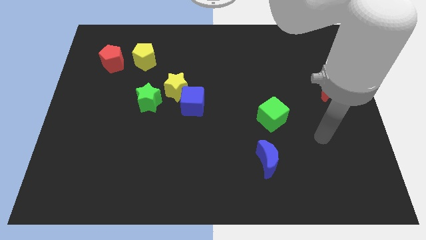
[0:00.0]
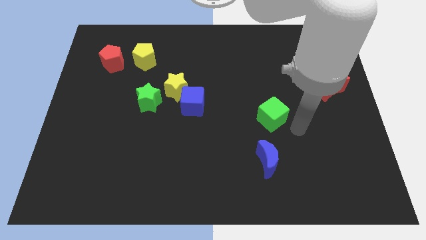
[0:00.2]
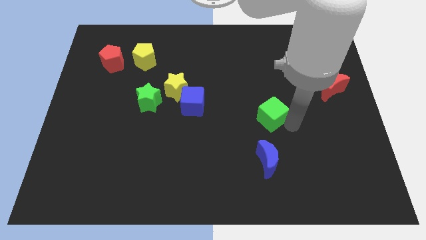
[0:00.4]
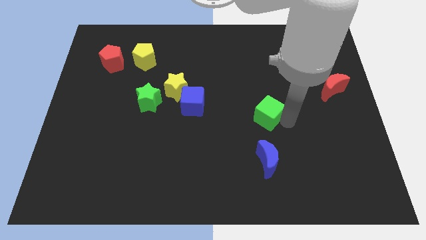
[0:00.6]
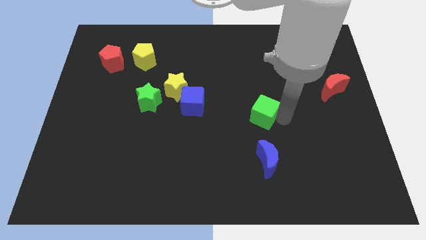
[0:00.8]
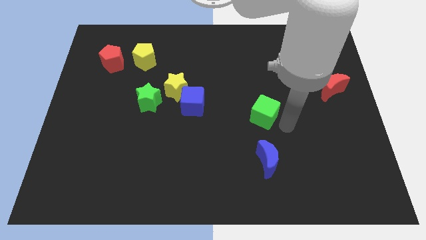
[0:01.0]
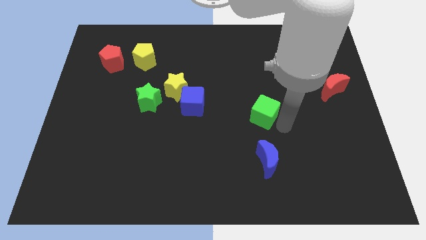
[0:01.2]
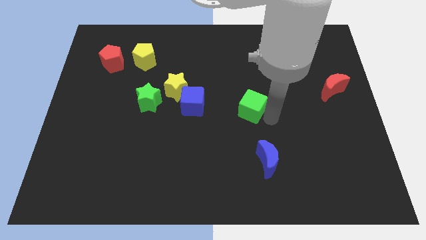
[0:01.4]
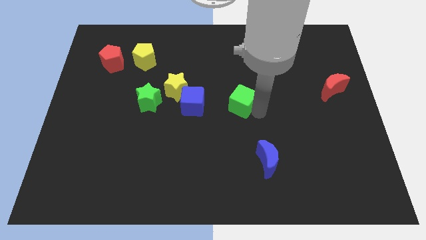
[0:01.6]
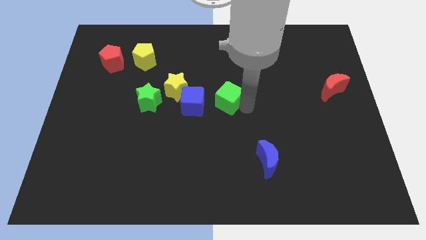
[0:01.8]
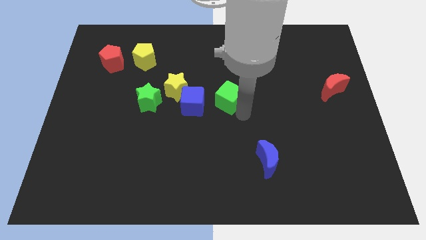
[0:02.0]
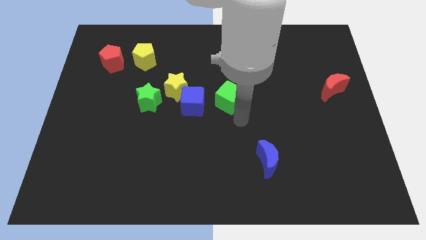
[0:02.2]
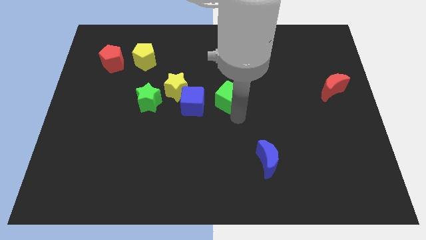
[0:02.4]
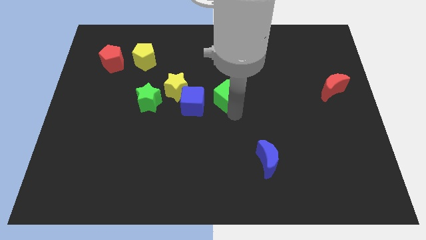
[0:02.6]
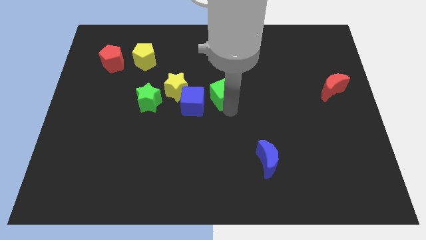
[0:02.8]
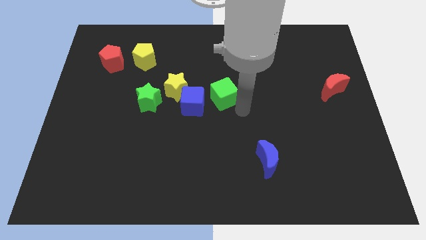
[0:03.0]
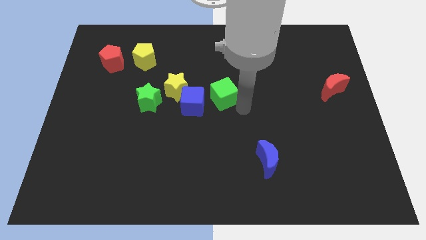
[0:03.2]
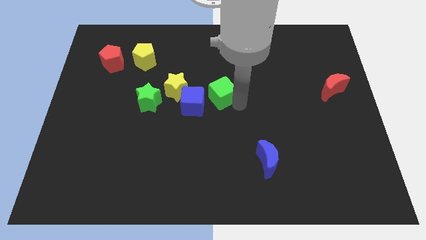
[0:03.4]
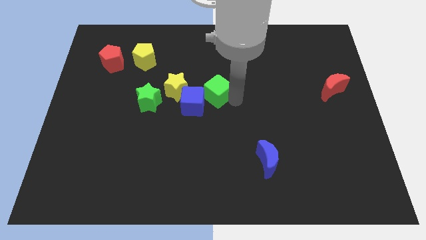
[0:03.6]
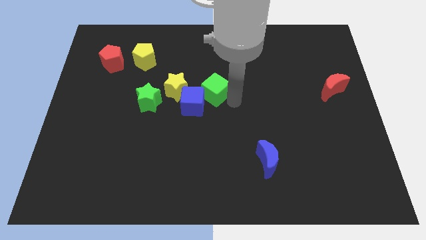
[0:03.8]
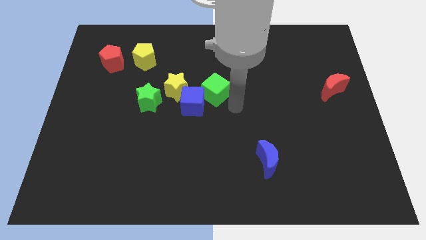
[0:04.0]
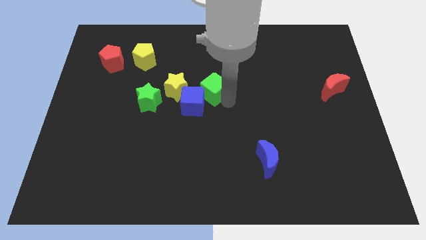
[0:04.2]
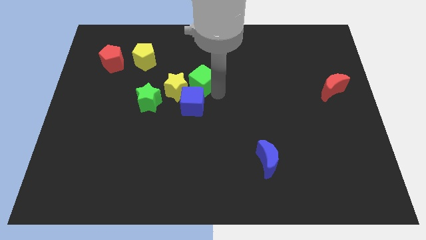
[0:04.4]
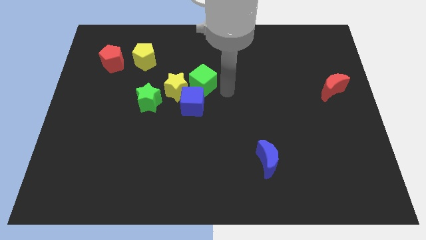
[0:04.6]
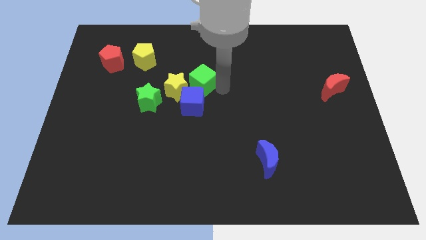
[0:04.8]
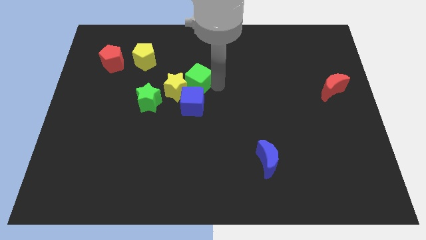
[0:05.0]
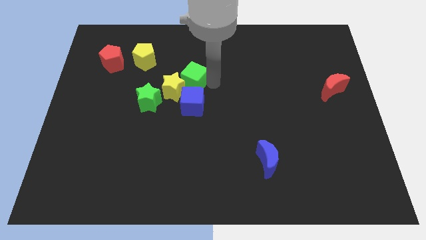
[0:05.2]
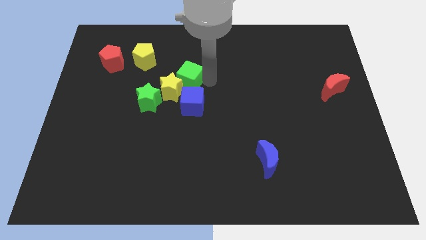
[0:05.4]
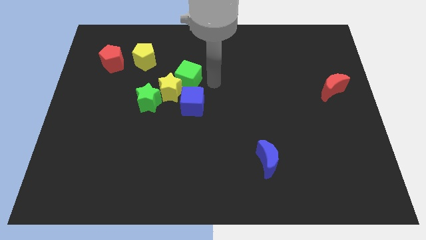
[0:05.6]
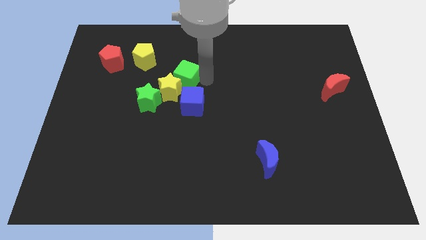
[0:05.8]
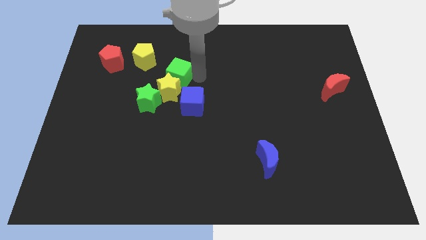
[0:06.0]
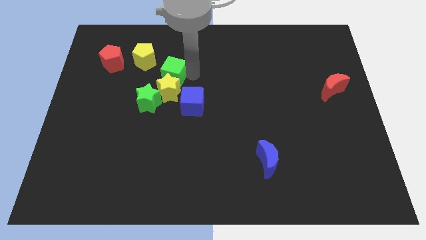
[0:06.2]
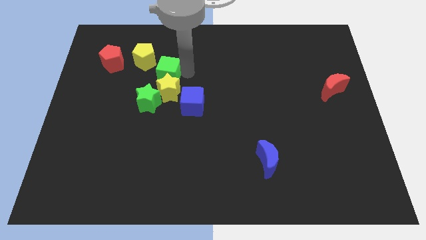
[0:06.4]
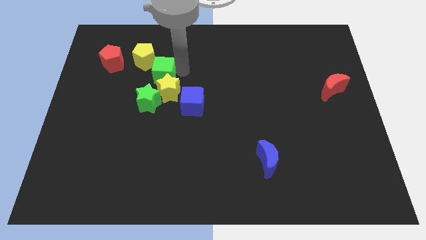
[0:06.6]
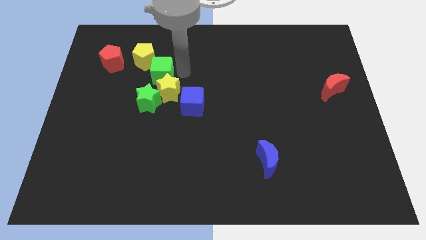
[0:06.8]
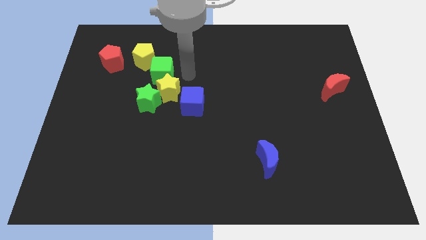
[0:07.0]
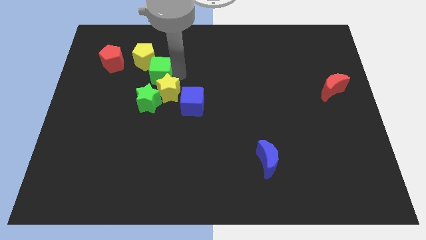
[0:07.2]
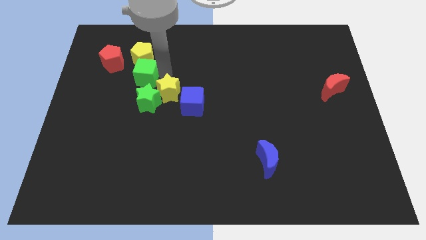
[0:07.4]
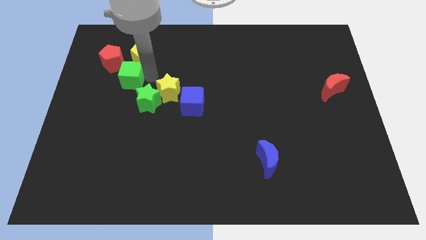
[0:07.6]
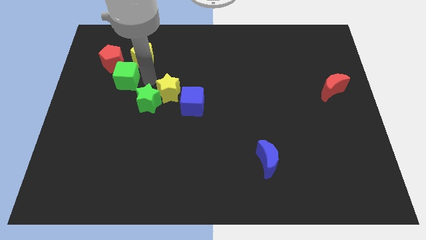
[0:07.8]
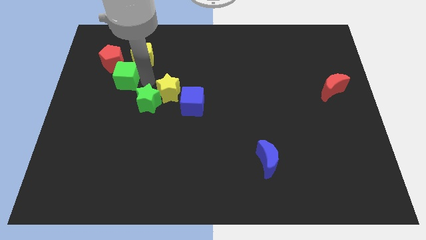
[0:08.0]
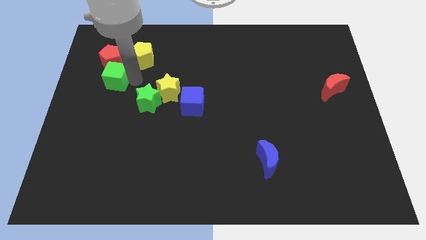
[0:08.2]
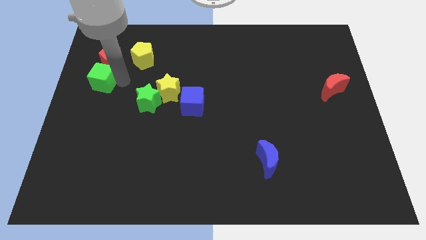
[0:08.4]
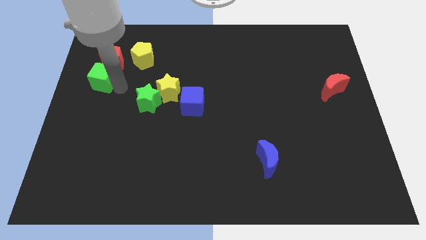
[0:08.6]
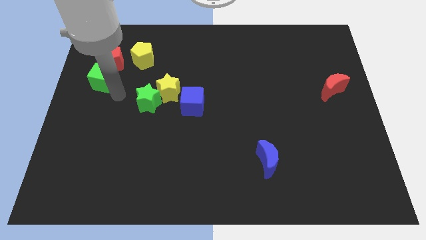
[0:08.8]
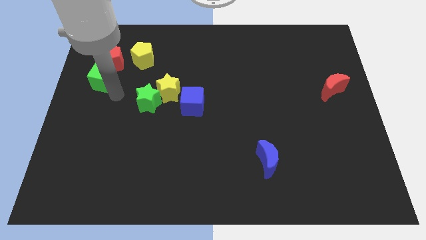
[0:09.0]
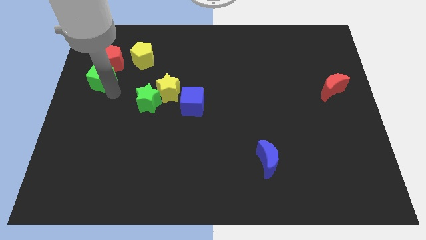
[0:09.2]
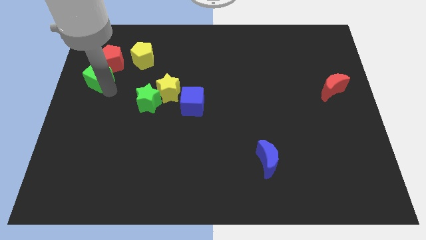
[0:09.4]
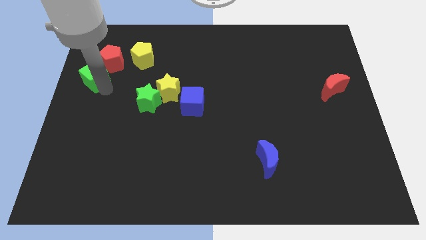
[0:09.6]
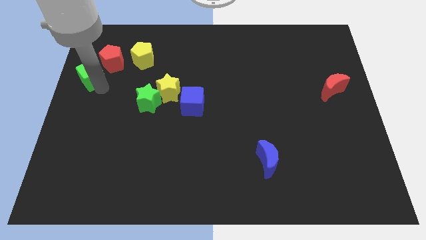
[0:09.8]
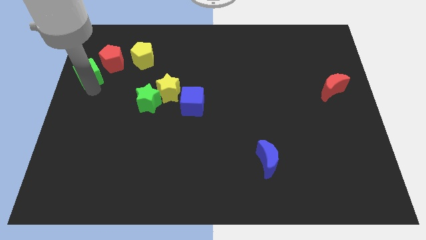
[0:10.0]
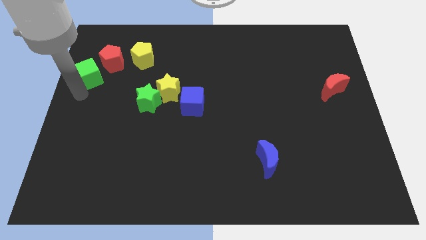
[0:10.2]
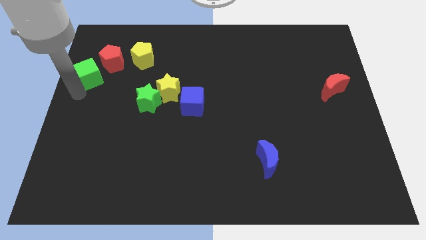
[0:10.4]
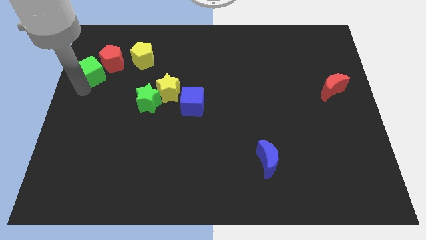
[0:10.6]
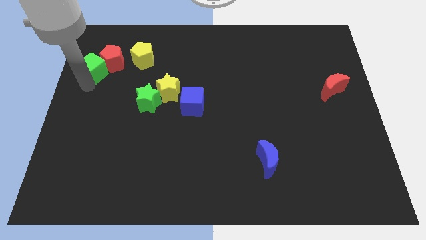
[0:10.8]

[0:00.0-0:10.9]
put the green cube to the left of the yellow pentagon

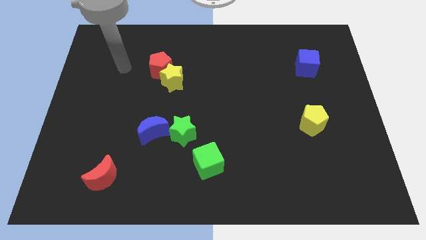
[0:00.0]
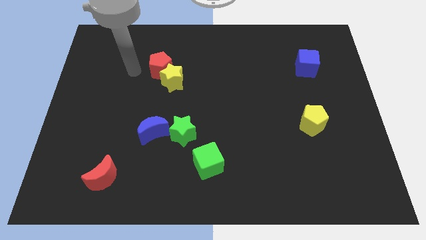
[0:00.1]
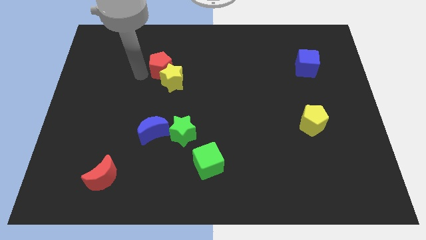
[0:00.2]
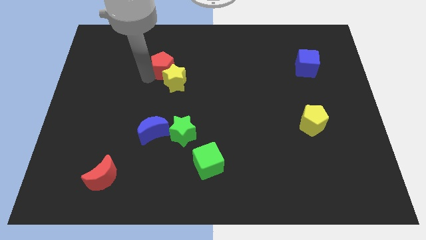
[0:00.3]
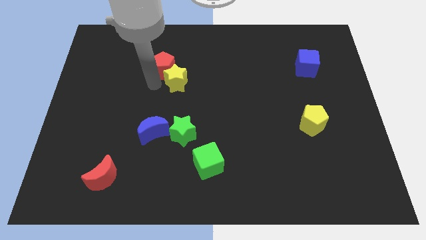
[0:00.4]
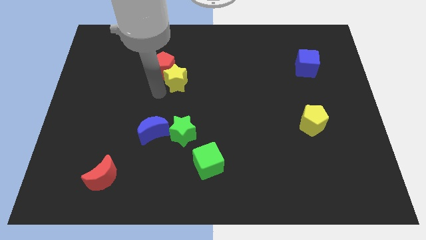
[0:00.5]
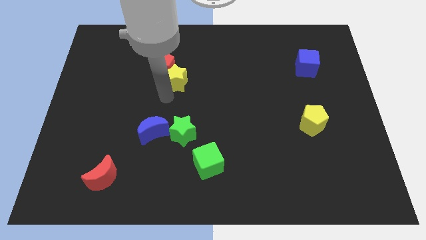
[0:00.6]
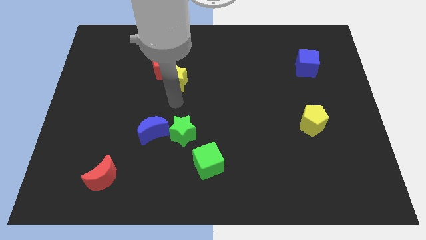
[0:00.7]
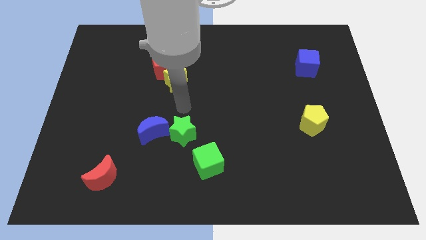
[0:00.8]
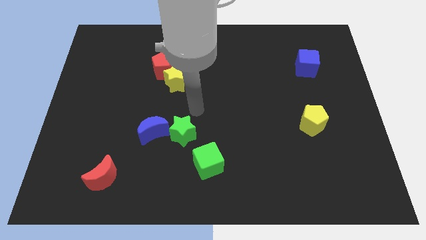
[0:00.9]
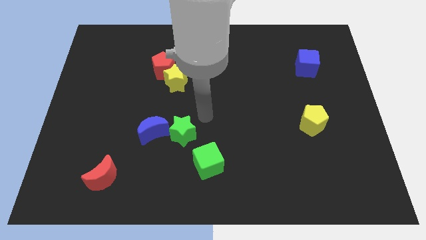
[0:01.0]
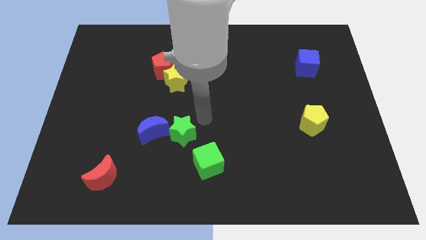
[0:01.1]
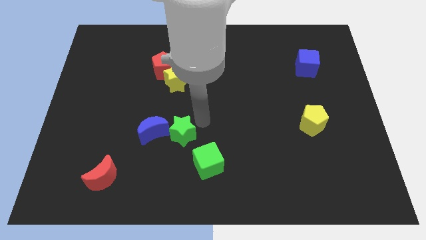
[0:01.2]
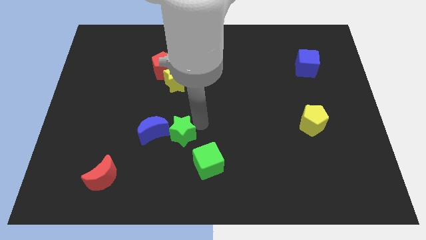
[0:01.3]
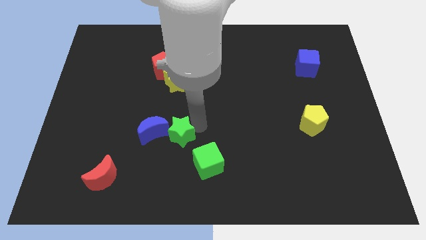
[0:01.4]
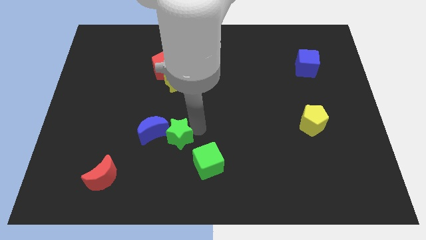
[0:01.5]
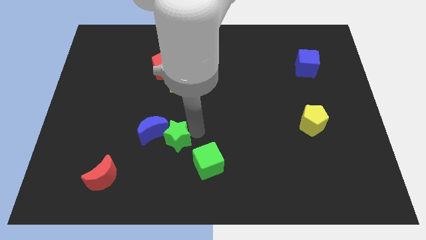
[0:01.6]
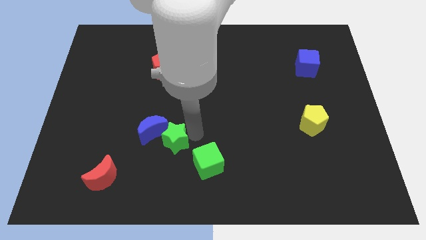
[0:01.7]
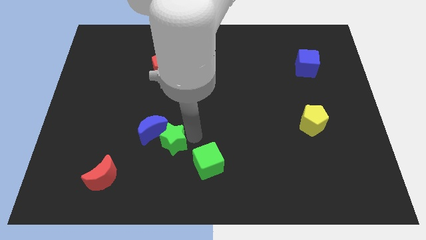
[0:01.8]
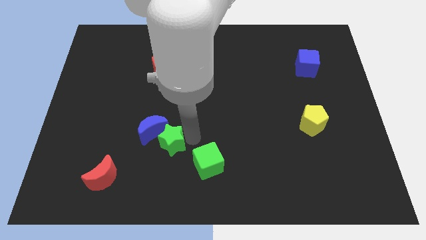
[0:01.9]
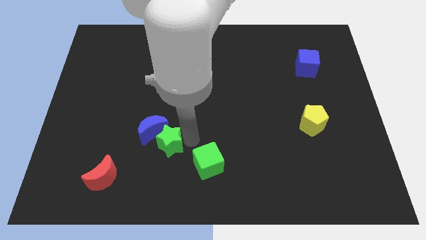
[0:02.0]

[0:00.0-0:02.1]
put the green star below the blue moon
